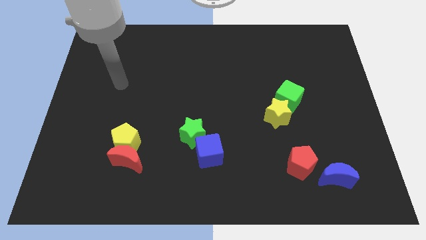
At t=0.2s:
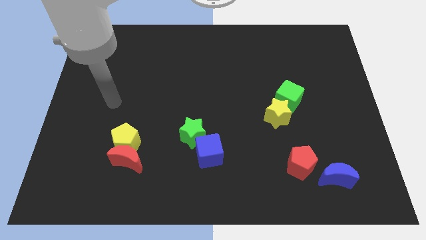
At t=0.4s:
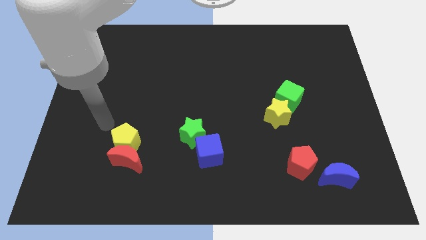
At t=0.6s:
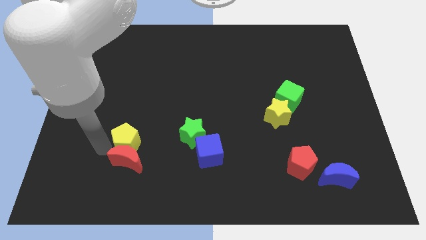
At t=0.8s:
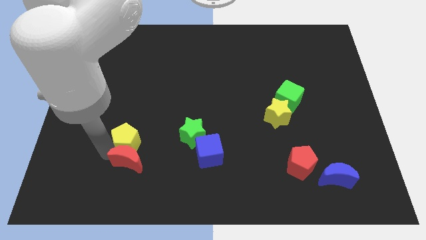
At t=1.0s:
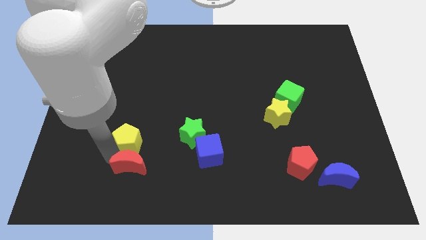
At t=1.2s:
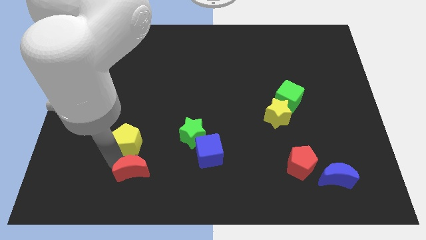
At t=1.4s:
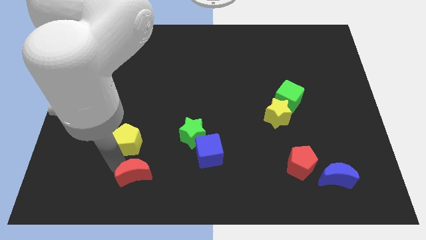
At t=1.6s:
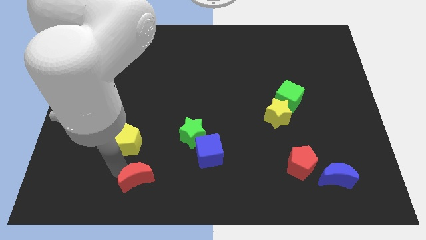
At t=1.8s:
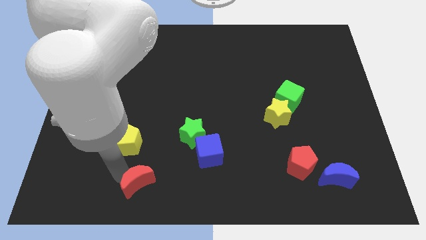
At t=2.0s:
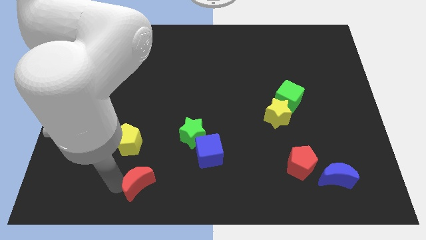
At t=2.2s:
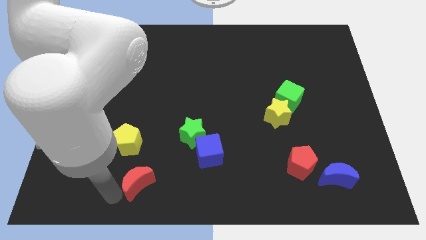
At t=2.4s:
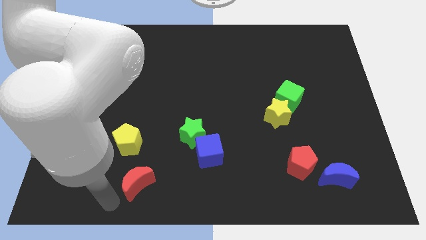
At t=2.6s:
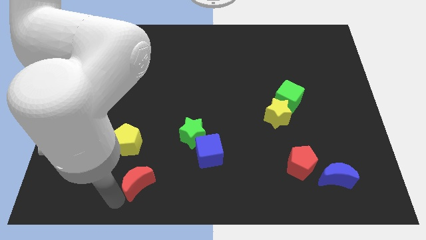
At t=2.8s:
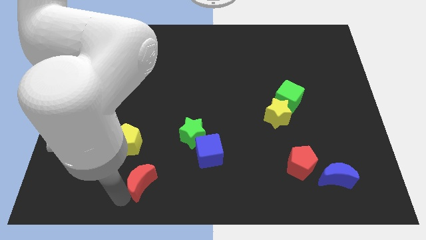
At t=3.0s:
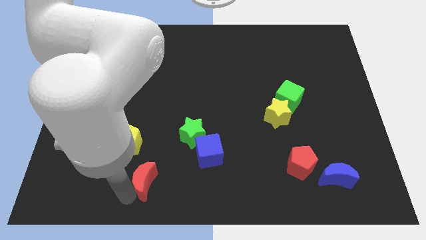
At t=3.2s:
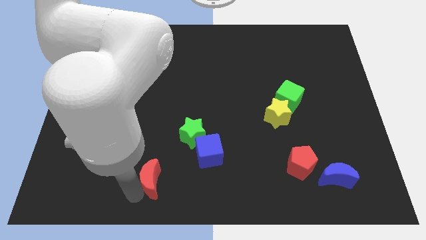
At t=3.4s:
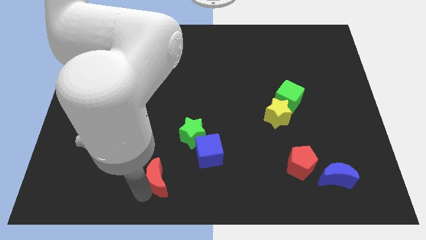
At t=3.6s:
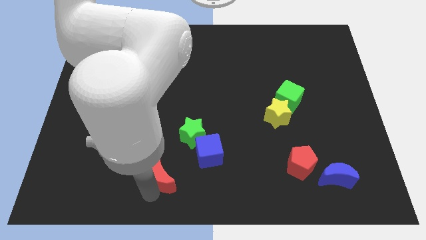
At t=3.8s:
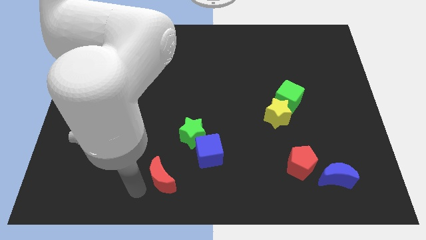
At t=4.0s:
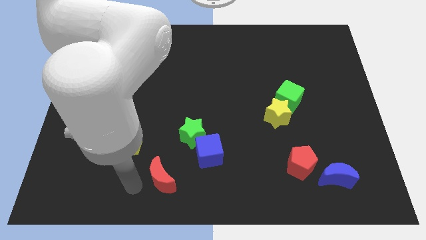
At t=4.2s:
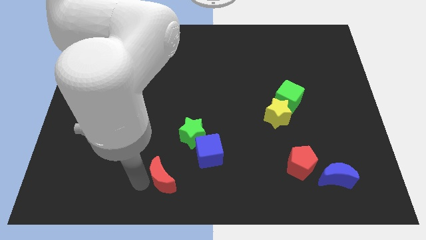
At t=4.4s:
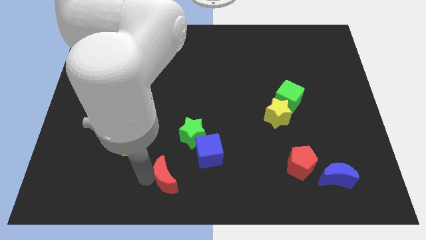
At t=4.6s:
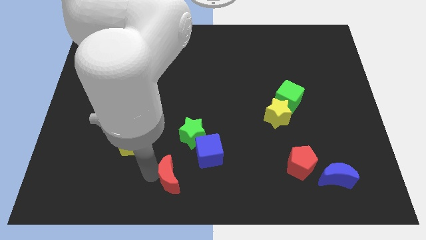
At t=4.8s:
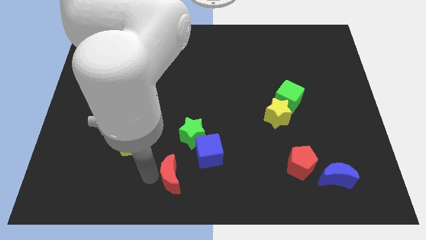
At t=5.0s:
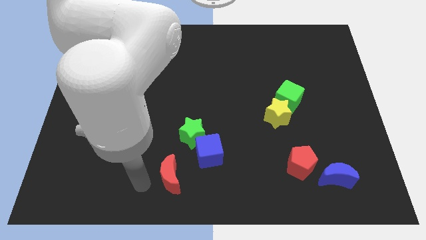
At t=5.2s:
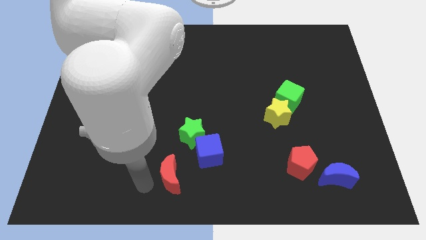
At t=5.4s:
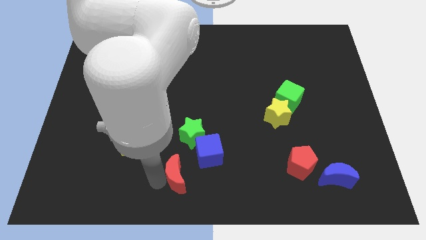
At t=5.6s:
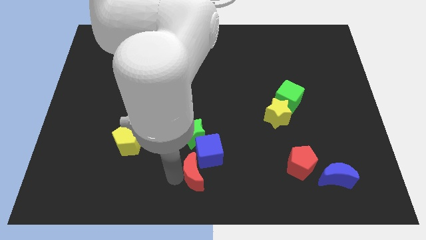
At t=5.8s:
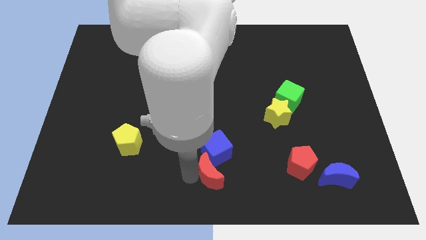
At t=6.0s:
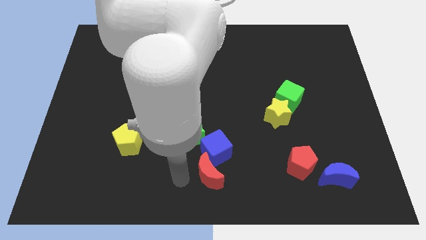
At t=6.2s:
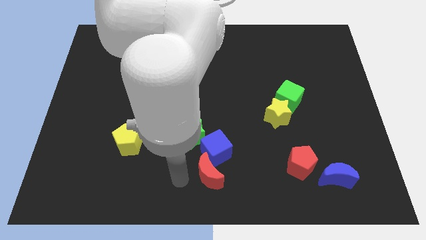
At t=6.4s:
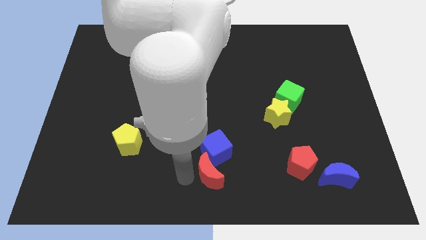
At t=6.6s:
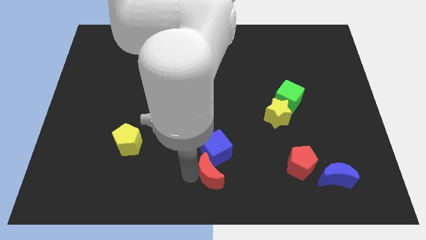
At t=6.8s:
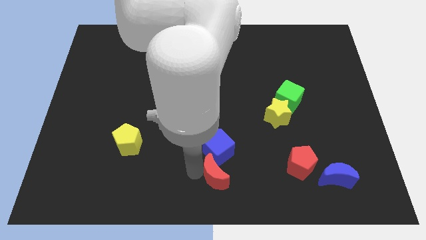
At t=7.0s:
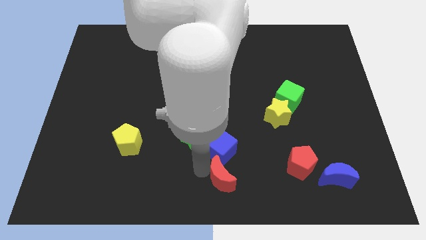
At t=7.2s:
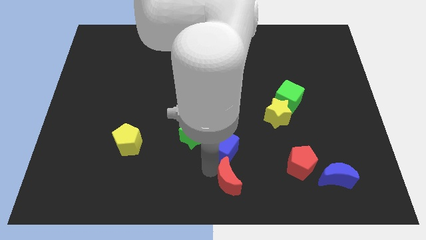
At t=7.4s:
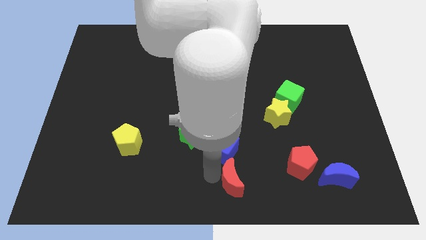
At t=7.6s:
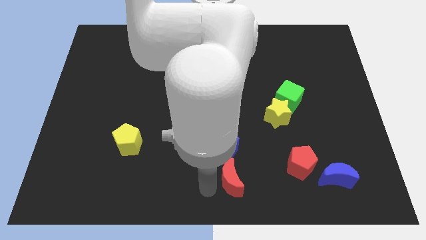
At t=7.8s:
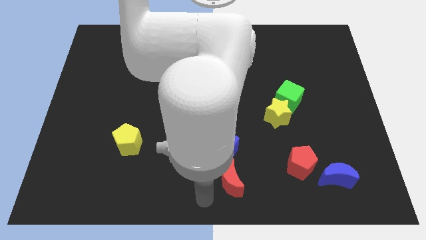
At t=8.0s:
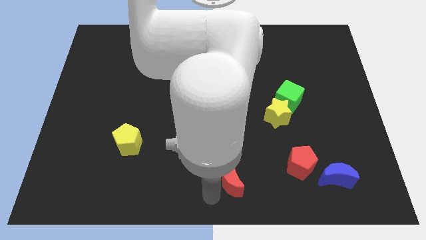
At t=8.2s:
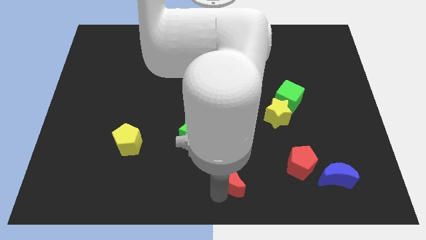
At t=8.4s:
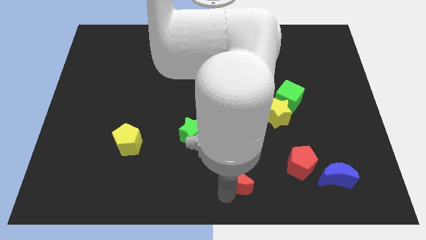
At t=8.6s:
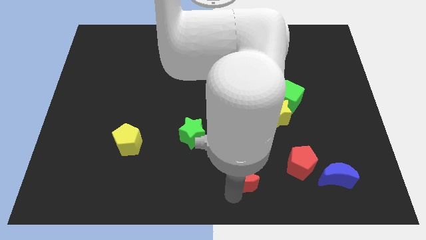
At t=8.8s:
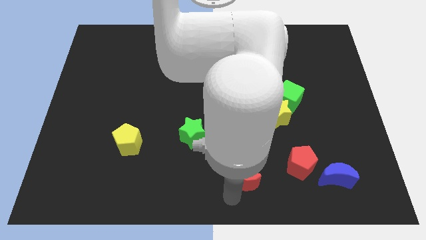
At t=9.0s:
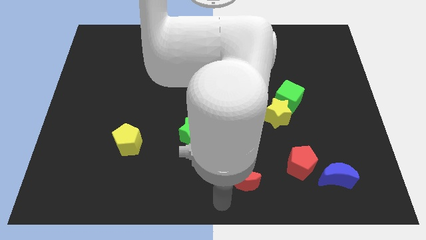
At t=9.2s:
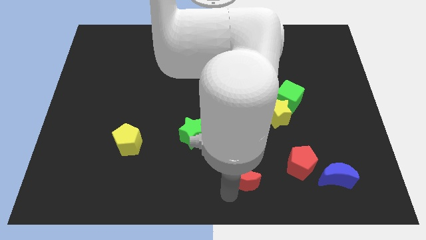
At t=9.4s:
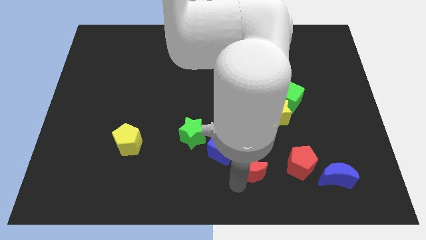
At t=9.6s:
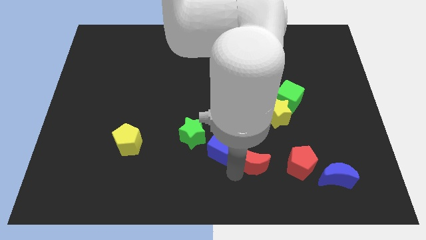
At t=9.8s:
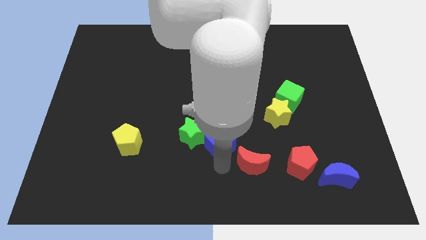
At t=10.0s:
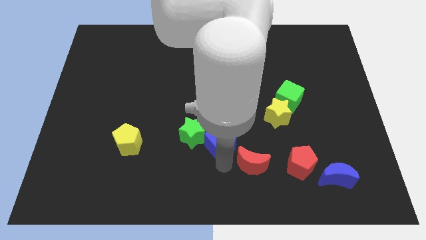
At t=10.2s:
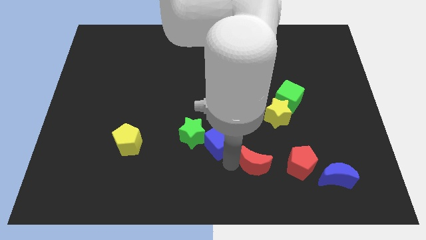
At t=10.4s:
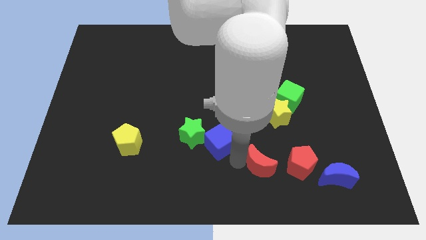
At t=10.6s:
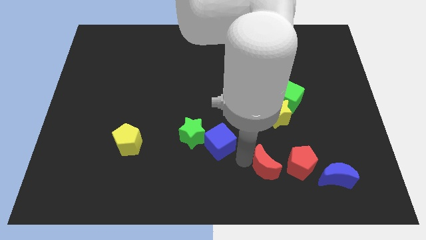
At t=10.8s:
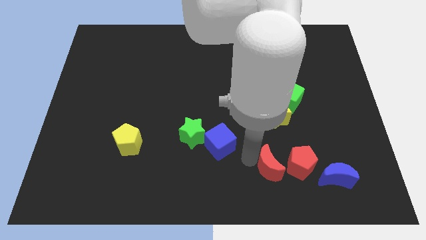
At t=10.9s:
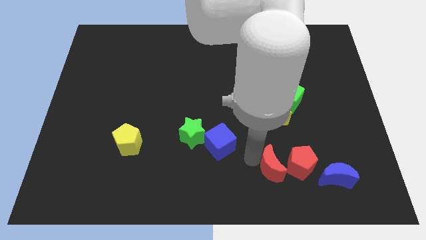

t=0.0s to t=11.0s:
put the red moon next to the red pentagon

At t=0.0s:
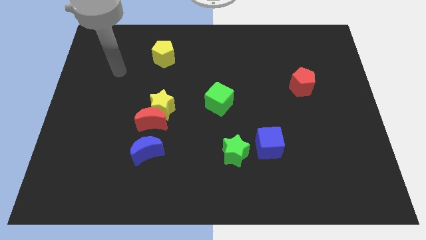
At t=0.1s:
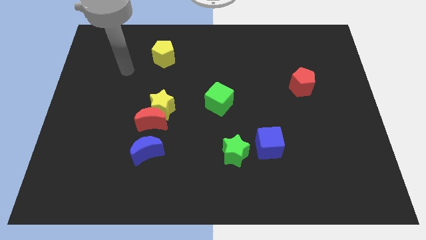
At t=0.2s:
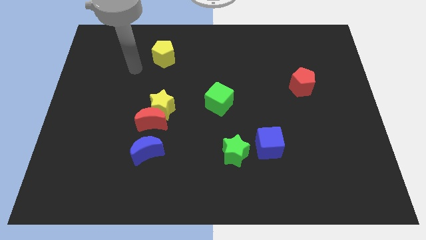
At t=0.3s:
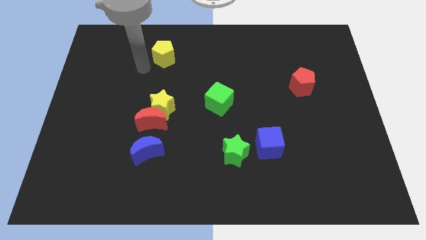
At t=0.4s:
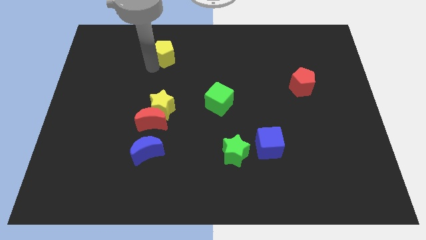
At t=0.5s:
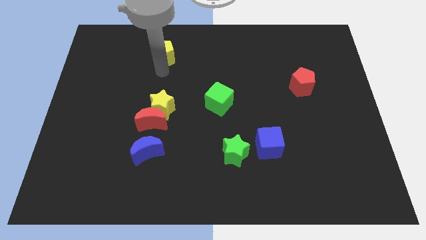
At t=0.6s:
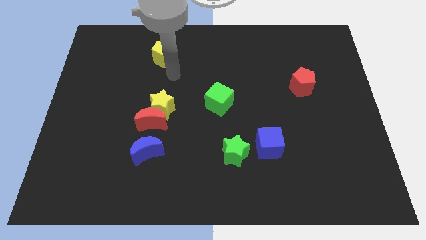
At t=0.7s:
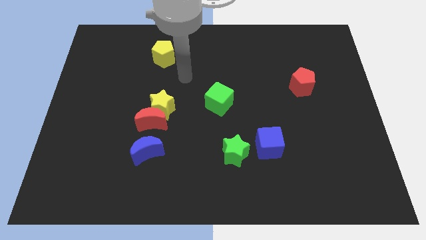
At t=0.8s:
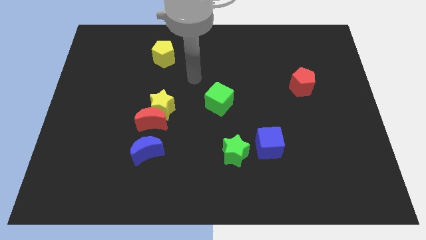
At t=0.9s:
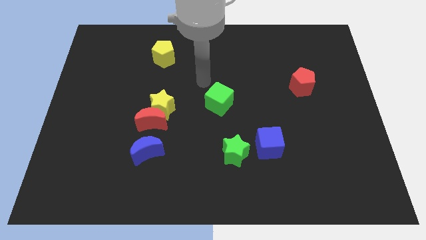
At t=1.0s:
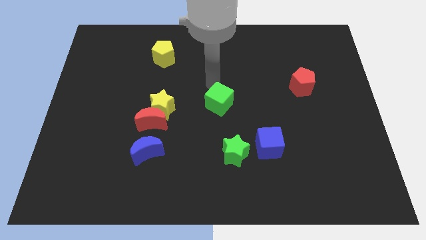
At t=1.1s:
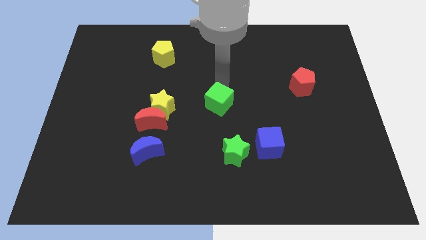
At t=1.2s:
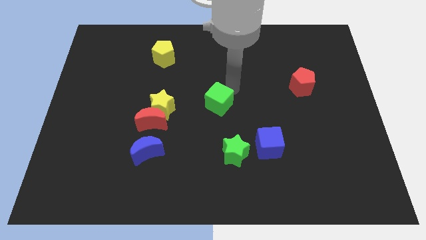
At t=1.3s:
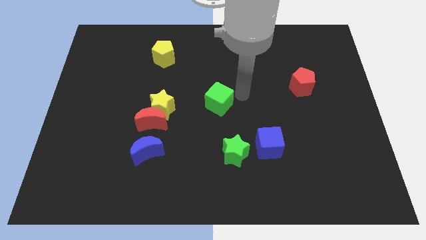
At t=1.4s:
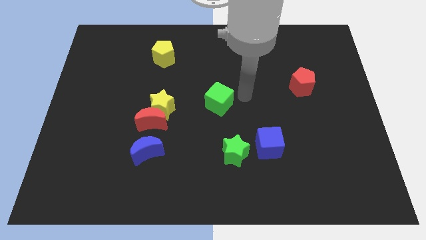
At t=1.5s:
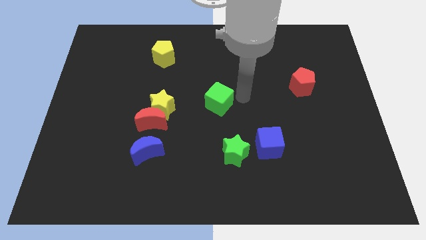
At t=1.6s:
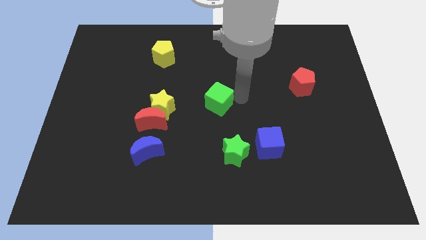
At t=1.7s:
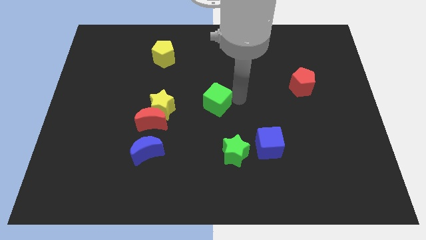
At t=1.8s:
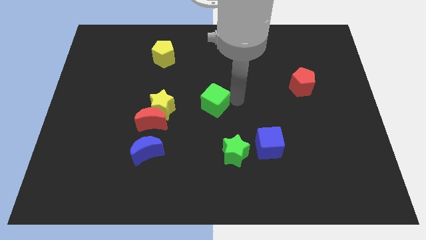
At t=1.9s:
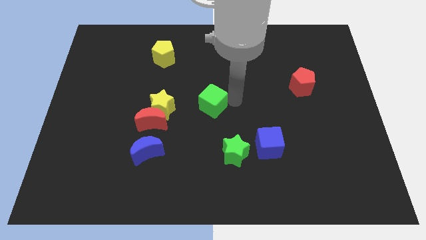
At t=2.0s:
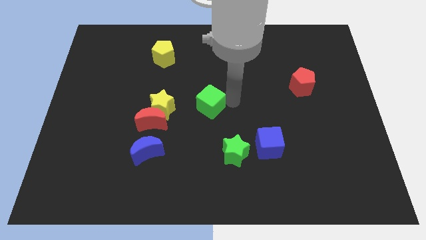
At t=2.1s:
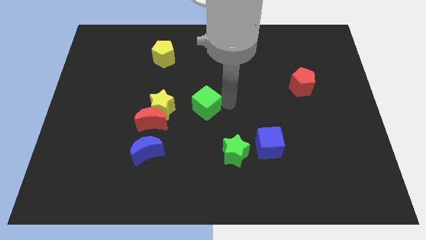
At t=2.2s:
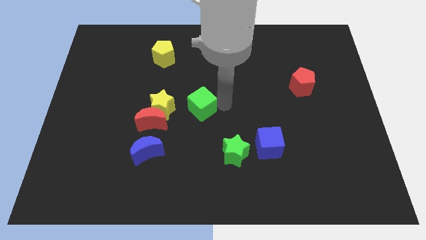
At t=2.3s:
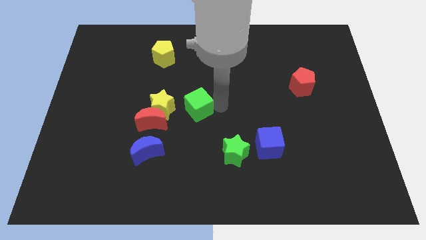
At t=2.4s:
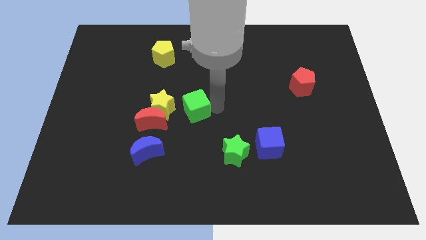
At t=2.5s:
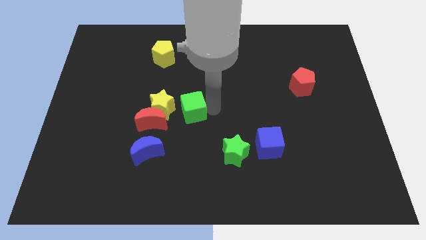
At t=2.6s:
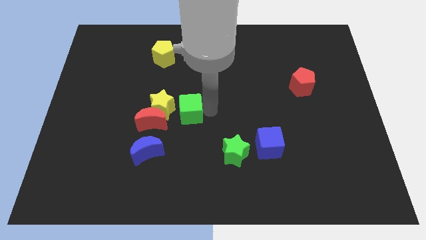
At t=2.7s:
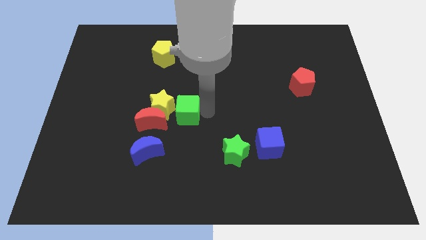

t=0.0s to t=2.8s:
move the green cube towards the yellow star
